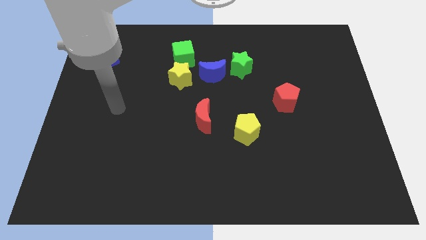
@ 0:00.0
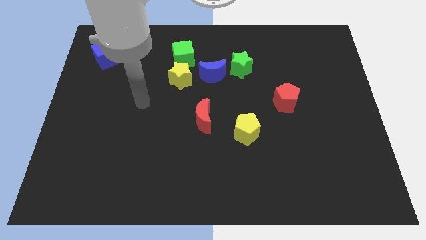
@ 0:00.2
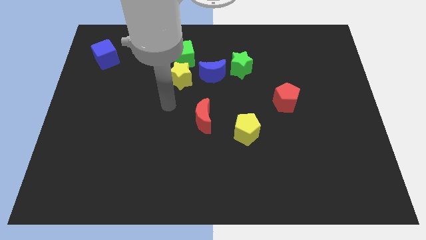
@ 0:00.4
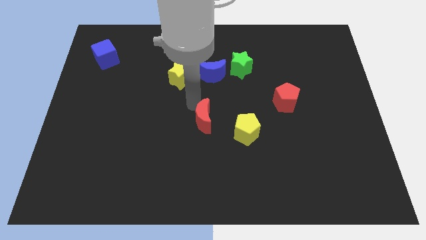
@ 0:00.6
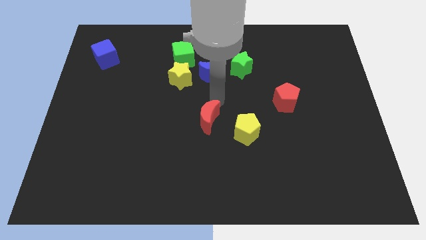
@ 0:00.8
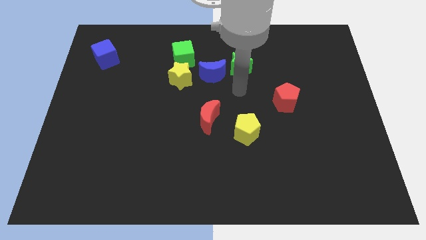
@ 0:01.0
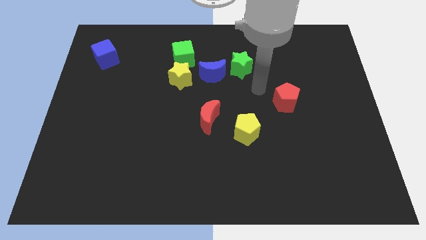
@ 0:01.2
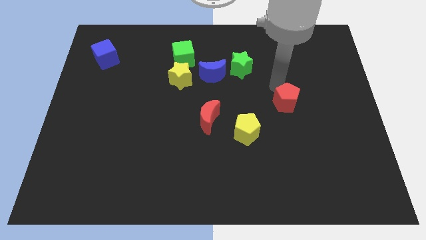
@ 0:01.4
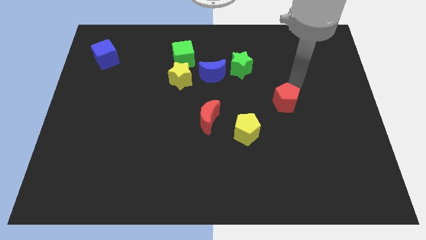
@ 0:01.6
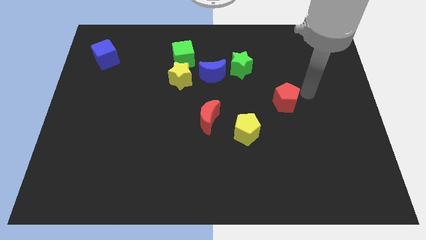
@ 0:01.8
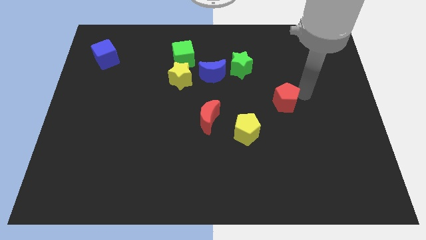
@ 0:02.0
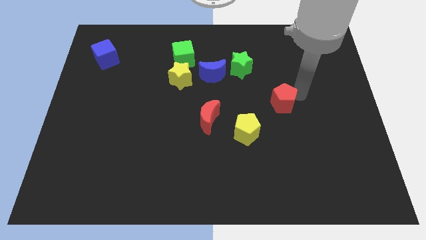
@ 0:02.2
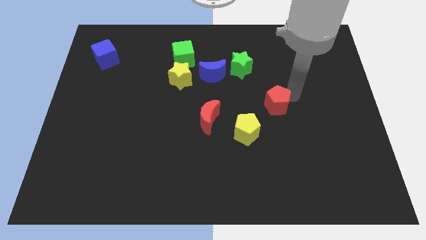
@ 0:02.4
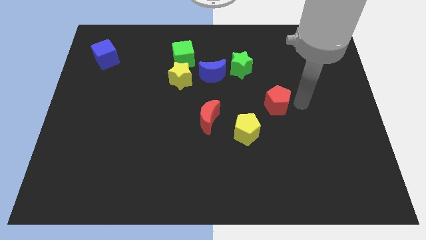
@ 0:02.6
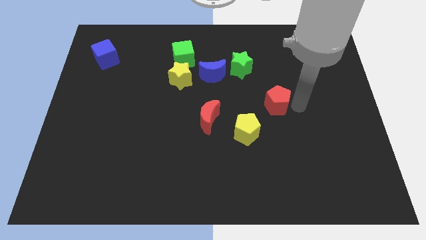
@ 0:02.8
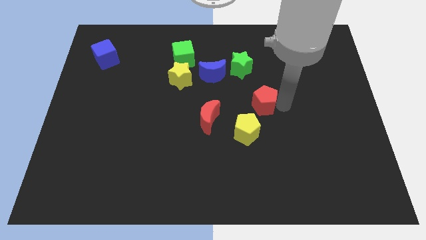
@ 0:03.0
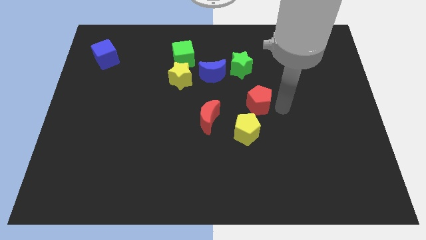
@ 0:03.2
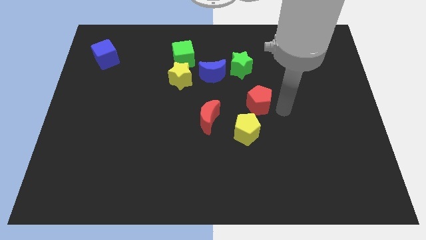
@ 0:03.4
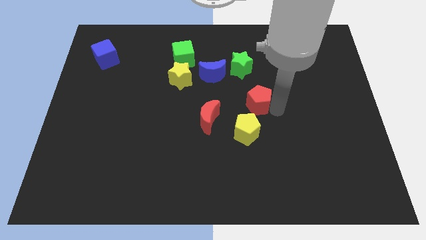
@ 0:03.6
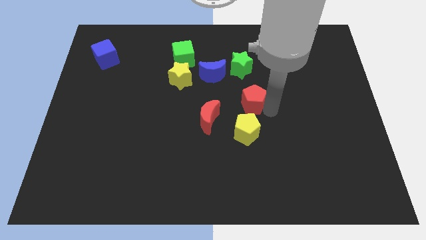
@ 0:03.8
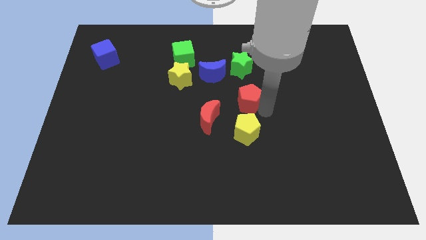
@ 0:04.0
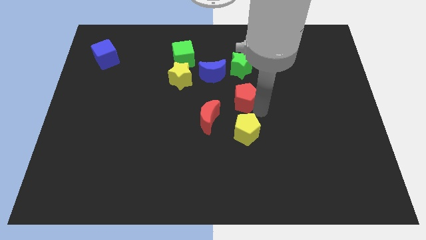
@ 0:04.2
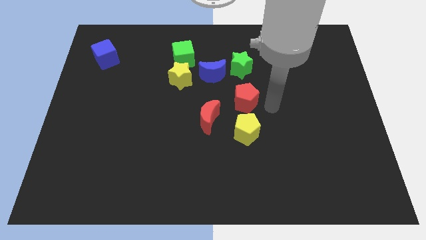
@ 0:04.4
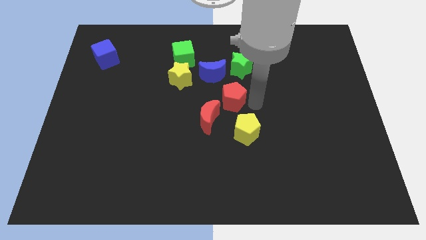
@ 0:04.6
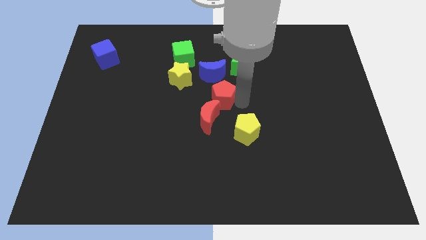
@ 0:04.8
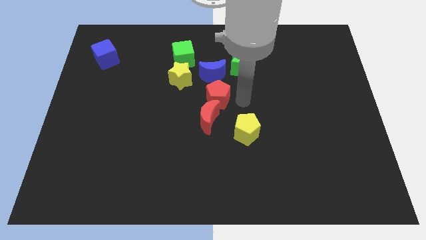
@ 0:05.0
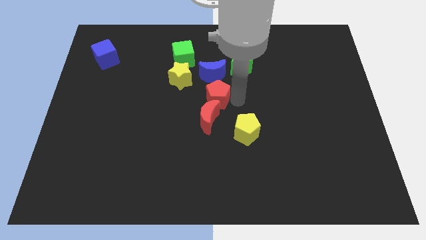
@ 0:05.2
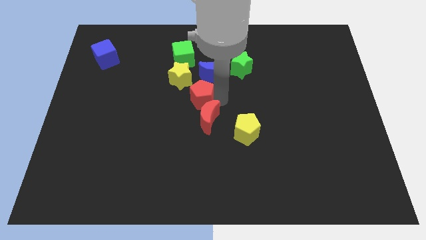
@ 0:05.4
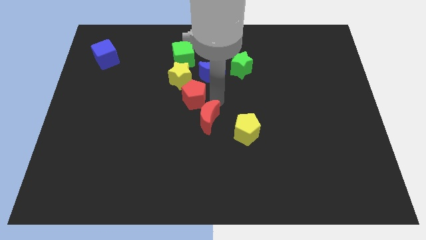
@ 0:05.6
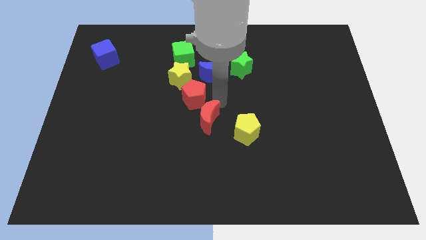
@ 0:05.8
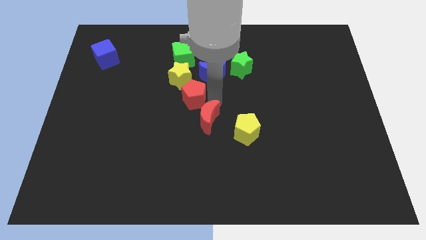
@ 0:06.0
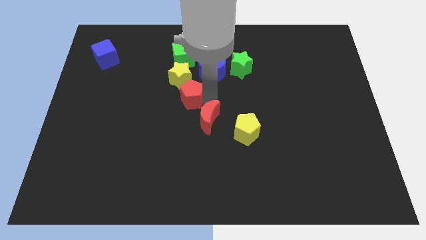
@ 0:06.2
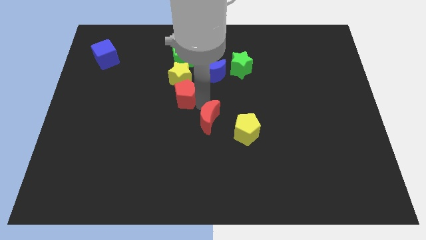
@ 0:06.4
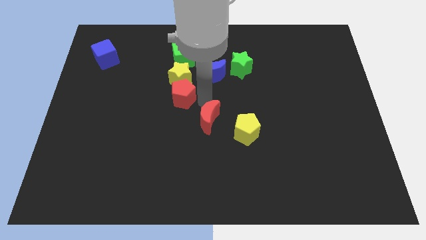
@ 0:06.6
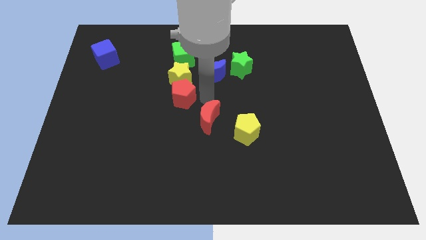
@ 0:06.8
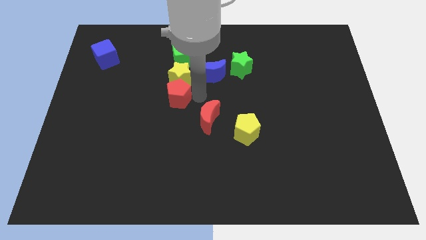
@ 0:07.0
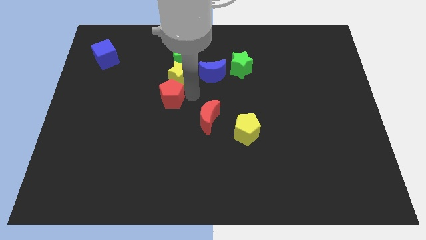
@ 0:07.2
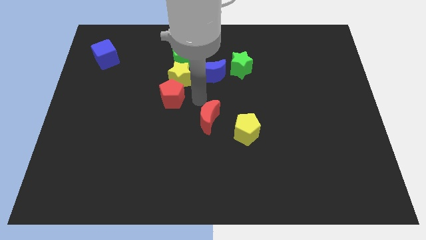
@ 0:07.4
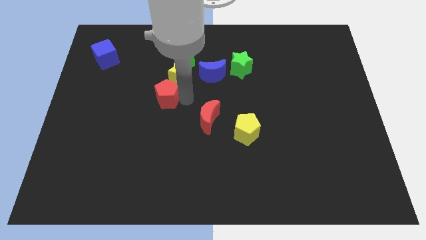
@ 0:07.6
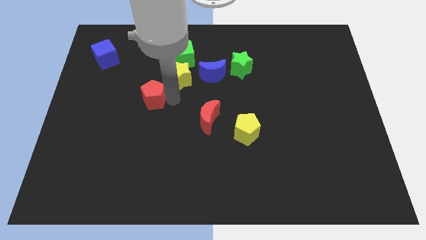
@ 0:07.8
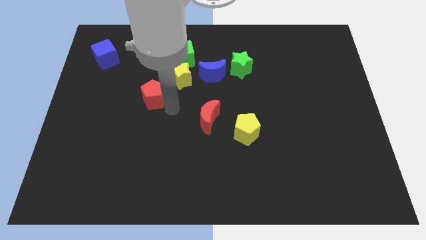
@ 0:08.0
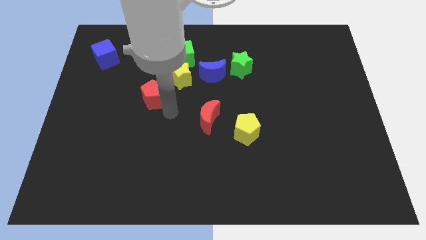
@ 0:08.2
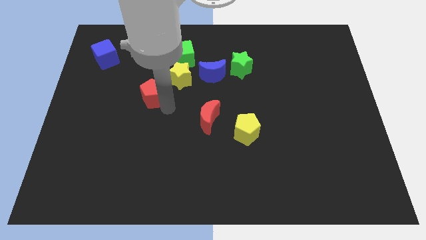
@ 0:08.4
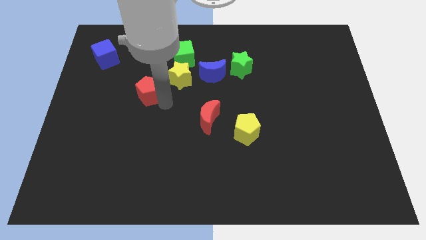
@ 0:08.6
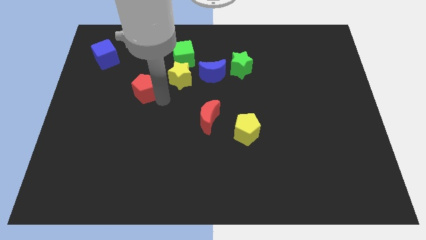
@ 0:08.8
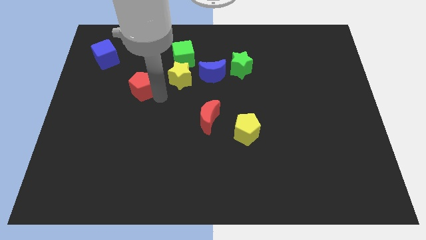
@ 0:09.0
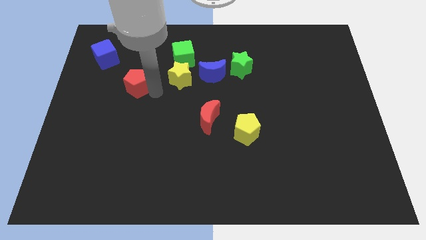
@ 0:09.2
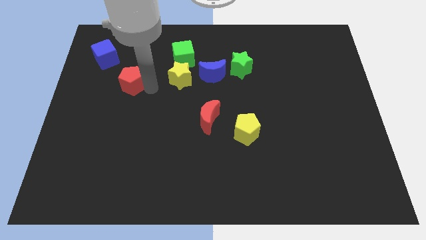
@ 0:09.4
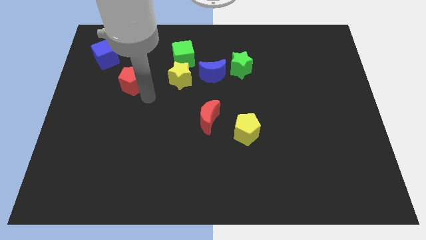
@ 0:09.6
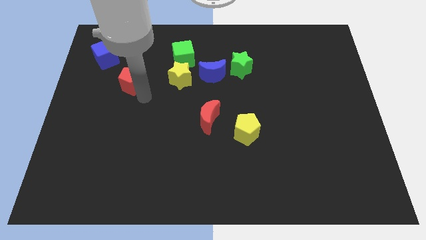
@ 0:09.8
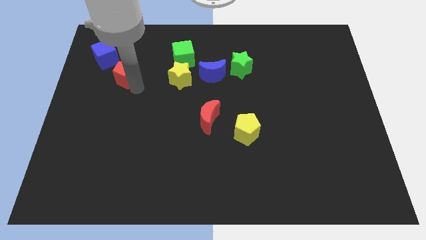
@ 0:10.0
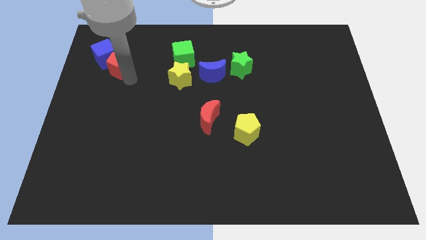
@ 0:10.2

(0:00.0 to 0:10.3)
push the red pentagon towards the blue cube

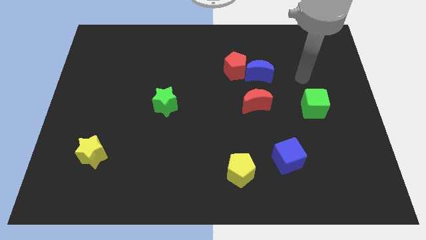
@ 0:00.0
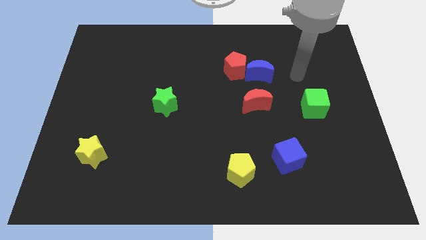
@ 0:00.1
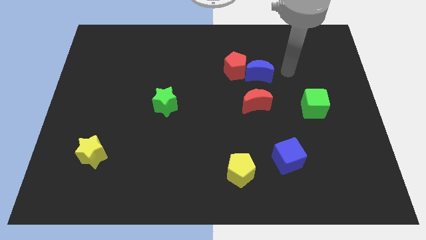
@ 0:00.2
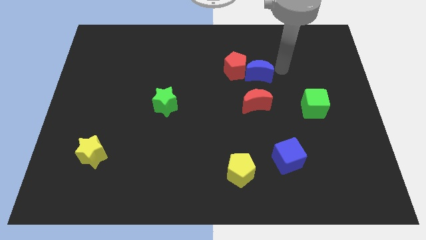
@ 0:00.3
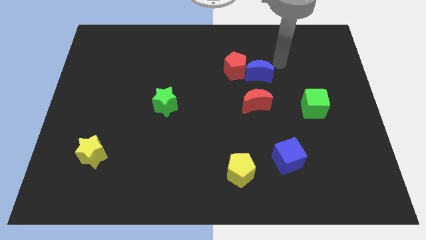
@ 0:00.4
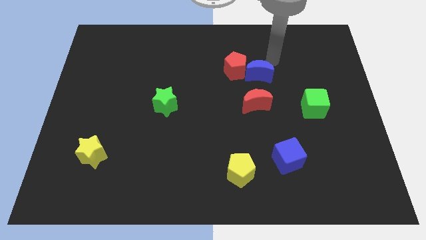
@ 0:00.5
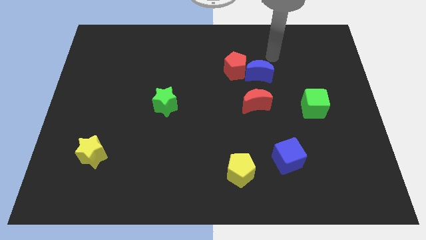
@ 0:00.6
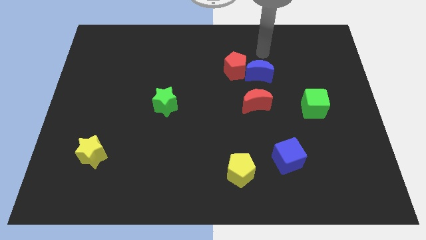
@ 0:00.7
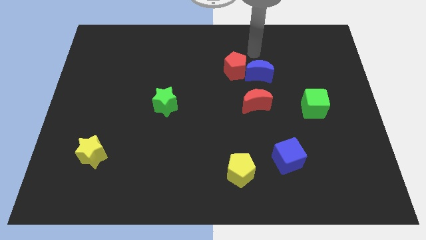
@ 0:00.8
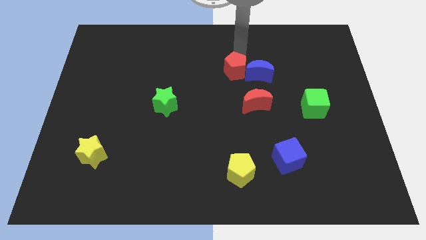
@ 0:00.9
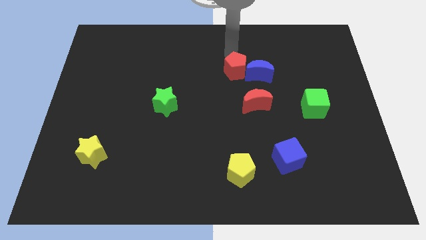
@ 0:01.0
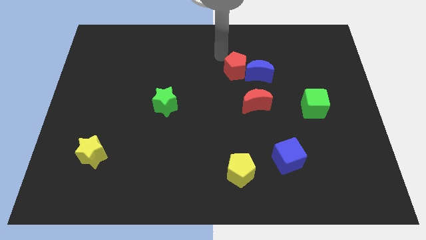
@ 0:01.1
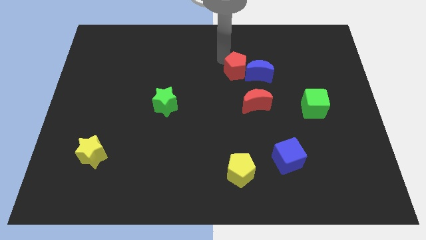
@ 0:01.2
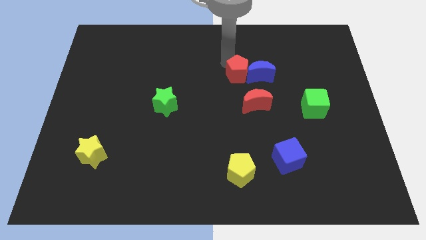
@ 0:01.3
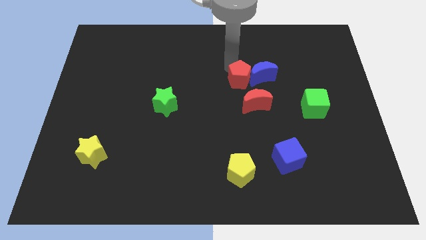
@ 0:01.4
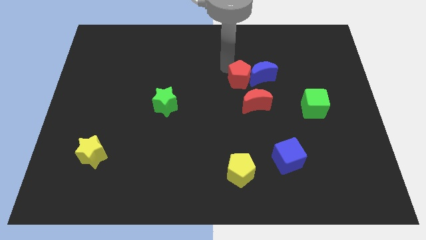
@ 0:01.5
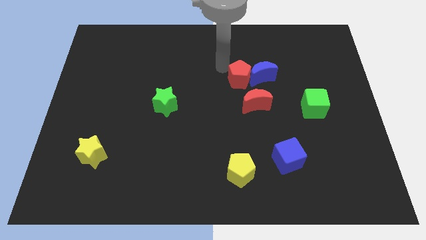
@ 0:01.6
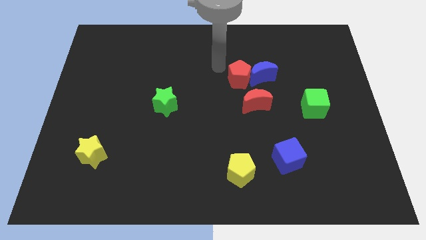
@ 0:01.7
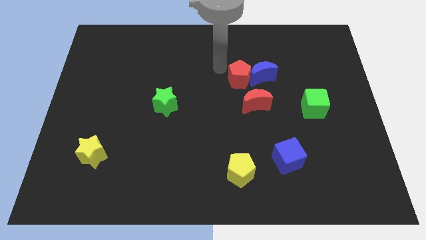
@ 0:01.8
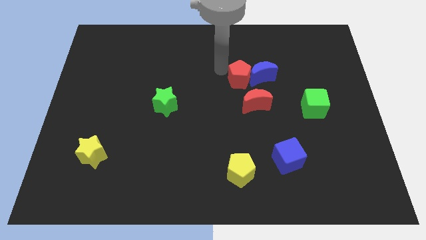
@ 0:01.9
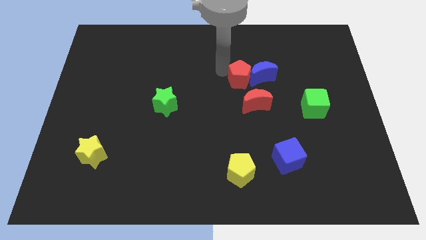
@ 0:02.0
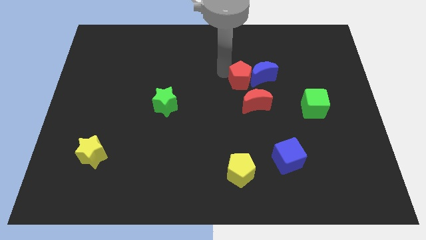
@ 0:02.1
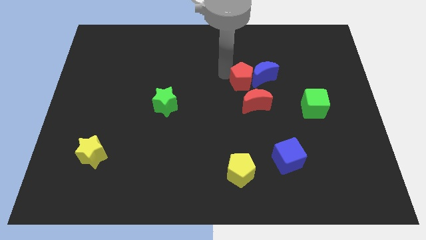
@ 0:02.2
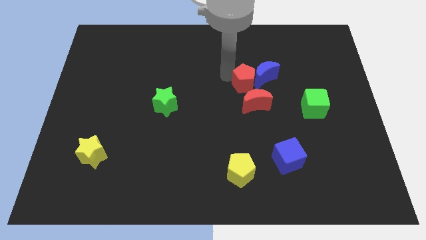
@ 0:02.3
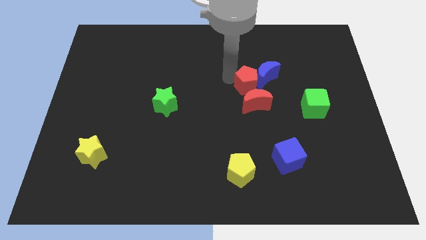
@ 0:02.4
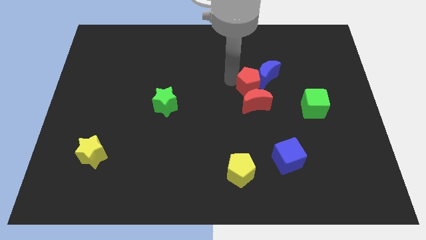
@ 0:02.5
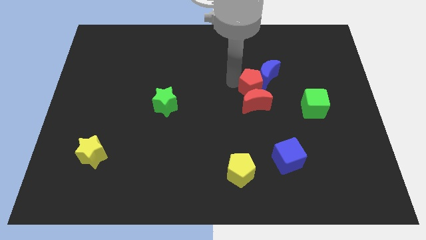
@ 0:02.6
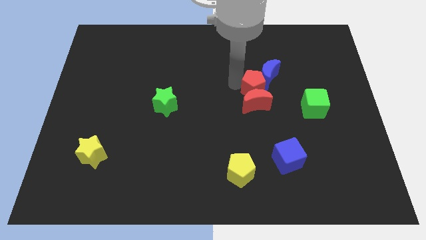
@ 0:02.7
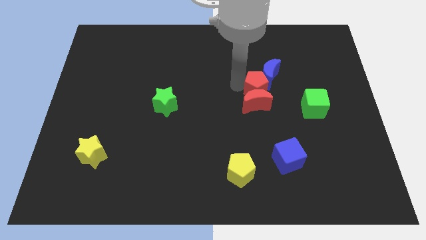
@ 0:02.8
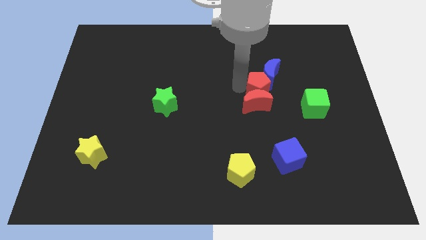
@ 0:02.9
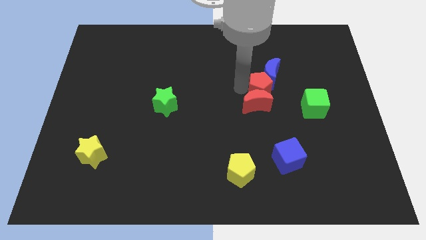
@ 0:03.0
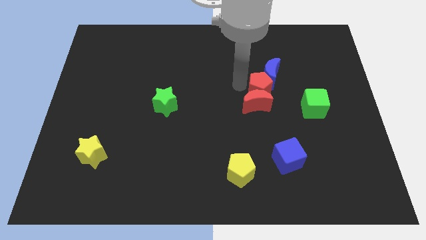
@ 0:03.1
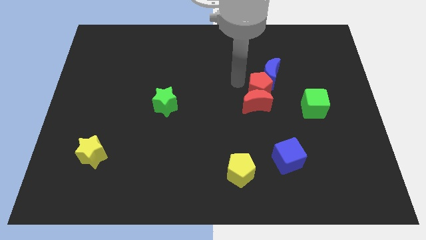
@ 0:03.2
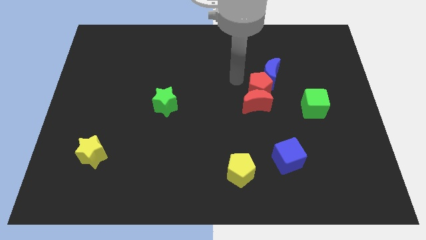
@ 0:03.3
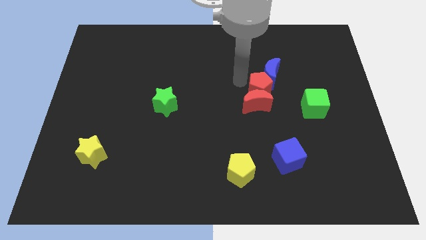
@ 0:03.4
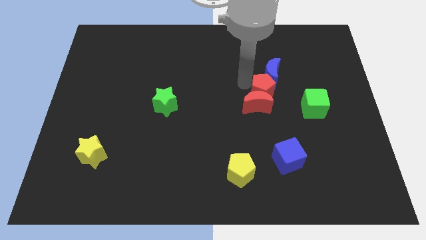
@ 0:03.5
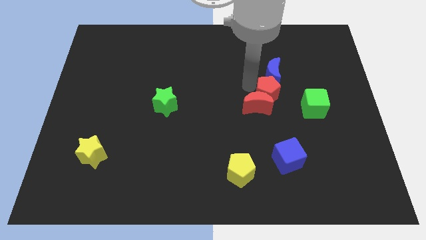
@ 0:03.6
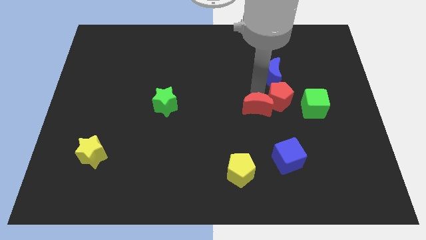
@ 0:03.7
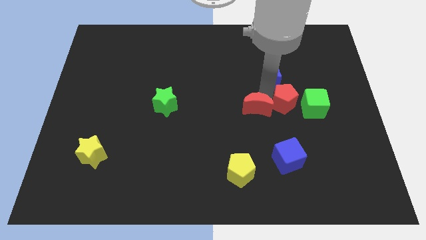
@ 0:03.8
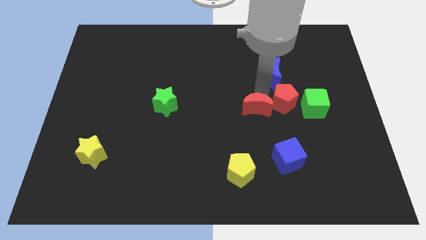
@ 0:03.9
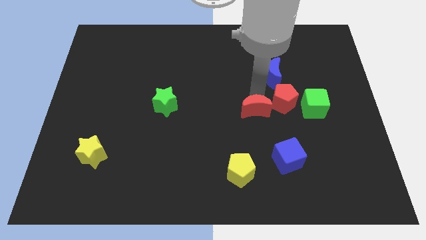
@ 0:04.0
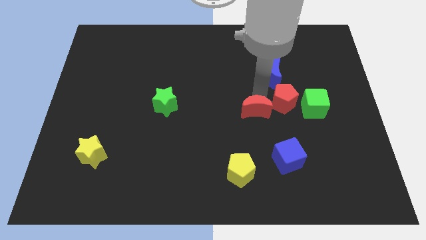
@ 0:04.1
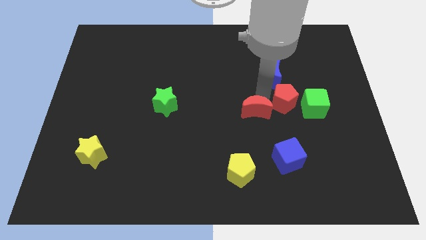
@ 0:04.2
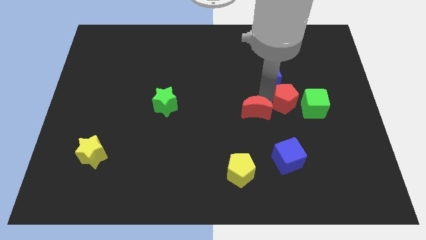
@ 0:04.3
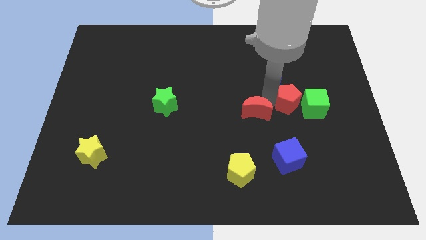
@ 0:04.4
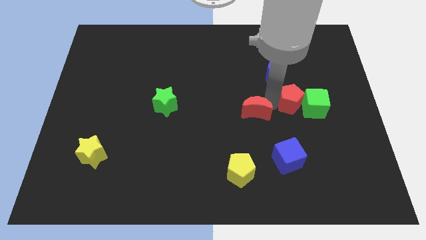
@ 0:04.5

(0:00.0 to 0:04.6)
put the red pentagon to the green cube
